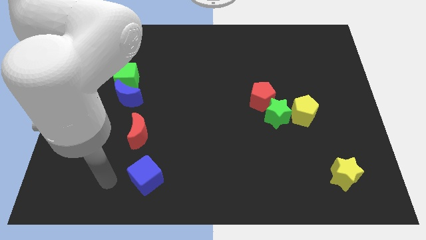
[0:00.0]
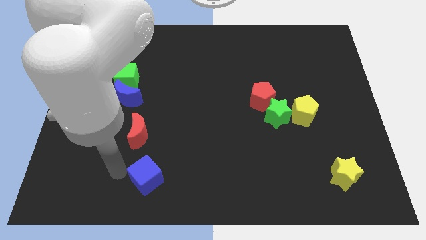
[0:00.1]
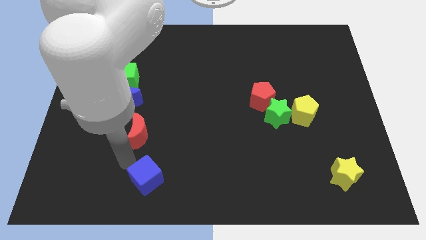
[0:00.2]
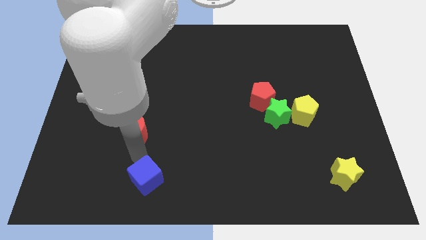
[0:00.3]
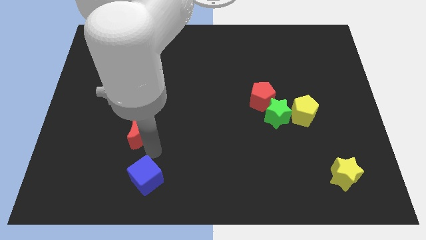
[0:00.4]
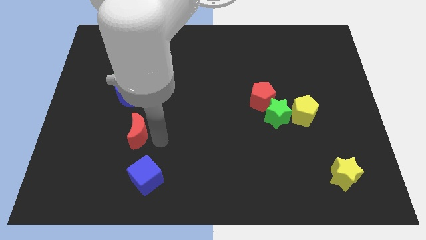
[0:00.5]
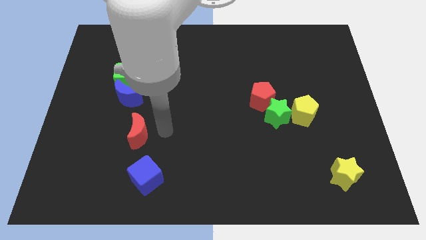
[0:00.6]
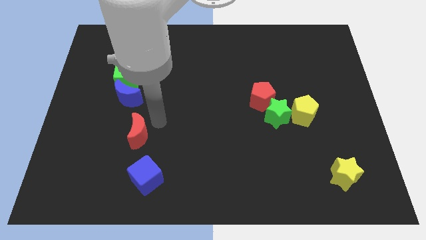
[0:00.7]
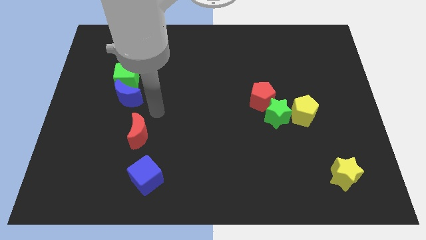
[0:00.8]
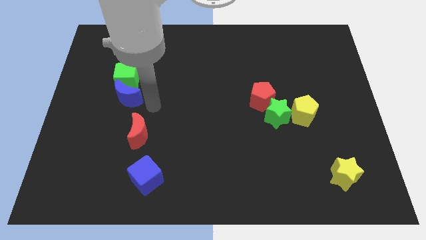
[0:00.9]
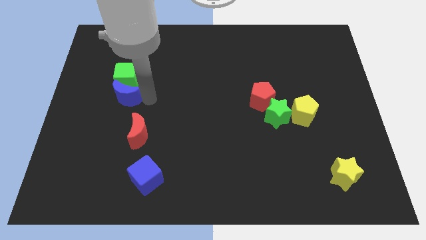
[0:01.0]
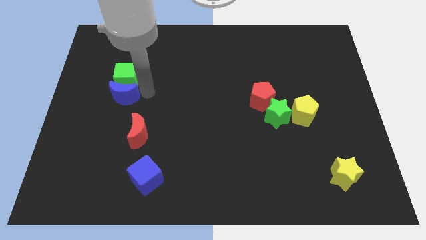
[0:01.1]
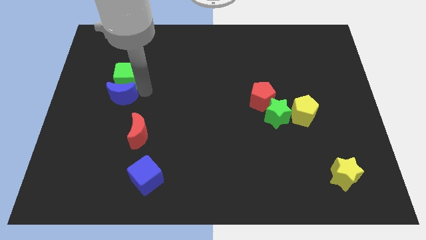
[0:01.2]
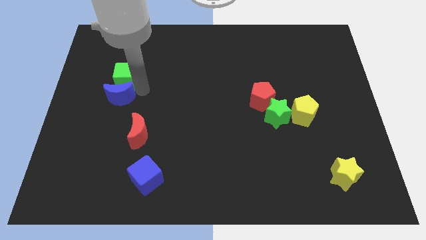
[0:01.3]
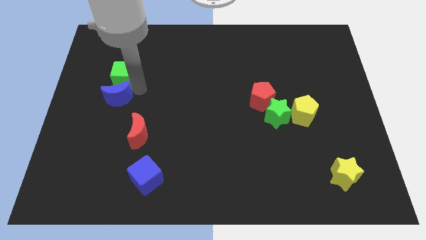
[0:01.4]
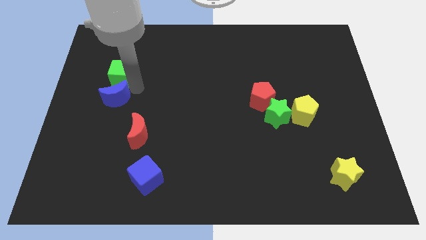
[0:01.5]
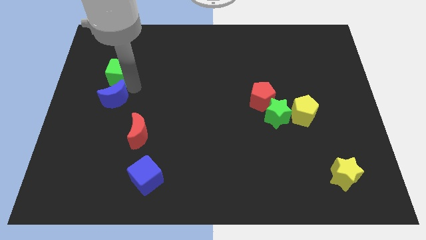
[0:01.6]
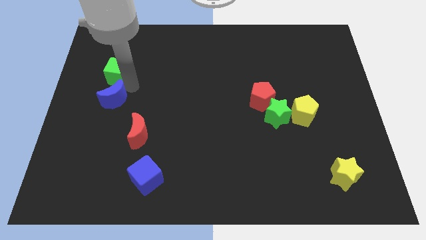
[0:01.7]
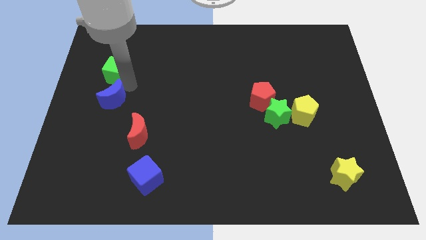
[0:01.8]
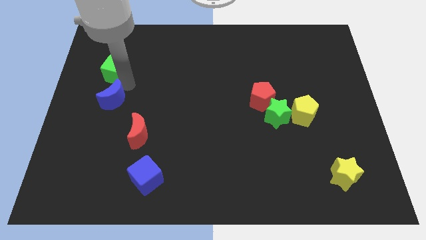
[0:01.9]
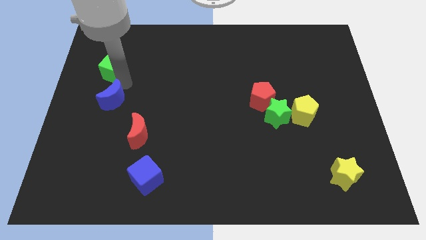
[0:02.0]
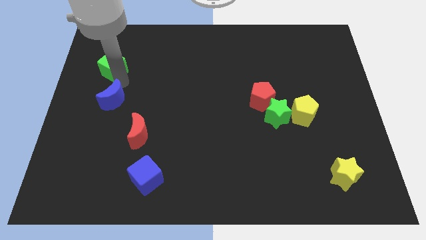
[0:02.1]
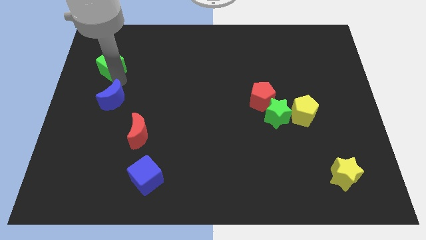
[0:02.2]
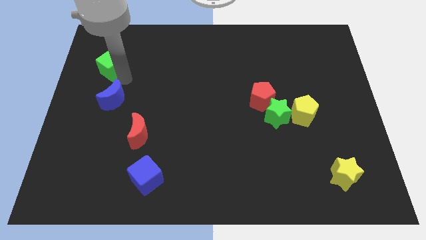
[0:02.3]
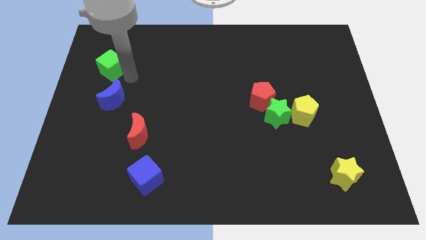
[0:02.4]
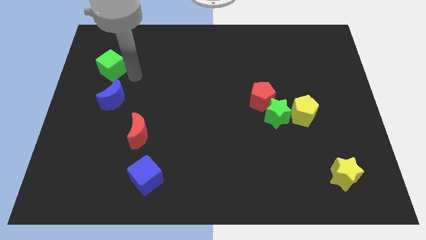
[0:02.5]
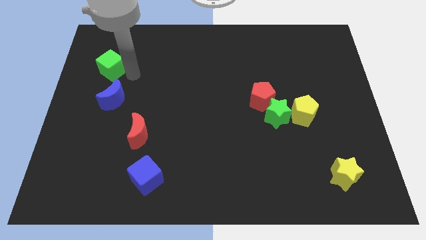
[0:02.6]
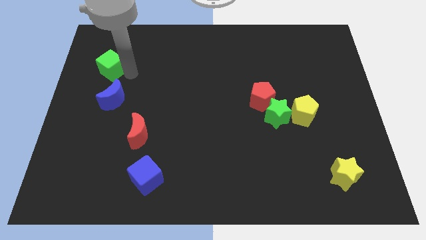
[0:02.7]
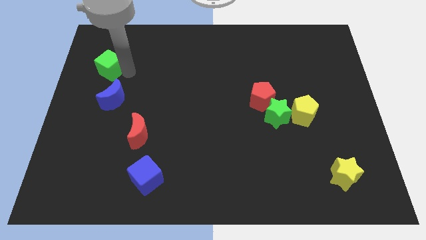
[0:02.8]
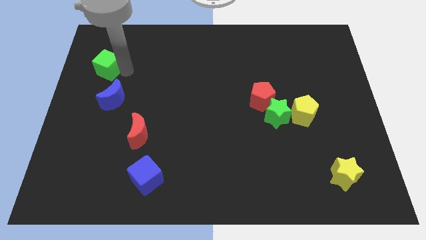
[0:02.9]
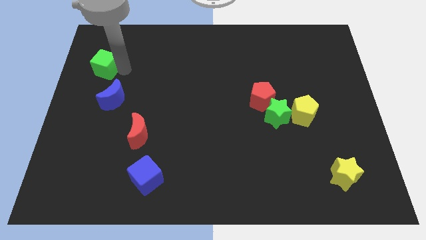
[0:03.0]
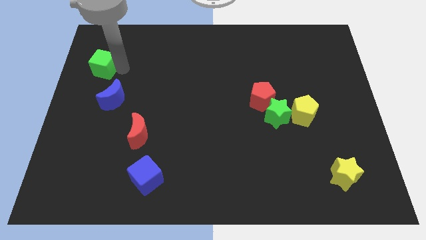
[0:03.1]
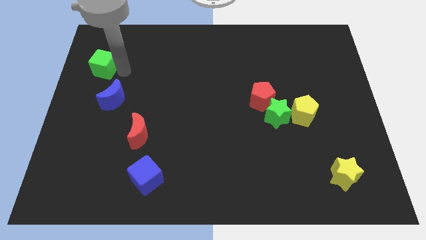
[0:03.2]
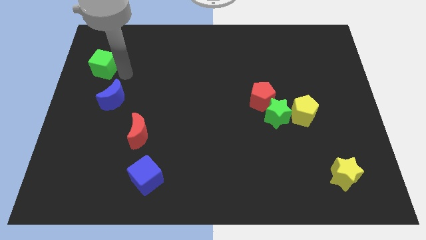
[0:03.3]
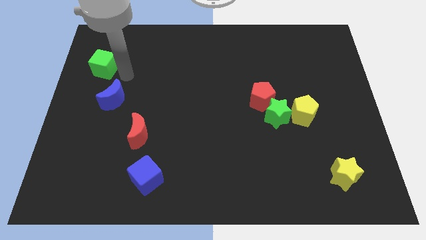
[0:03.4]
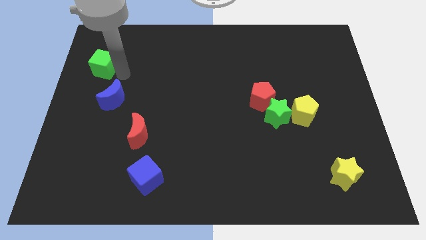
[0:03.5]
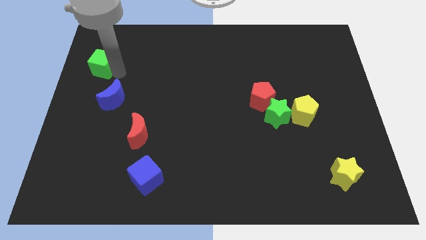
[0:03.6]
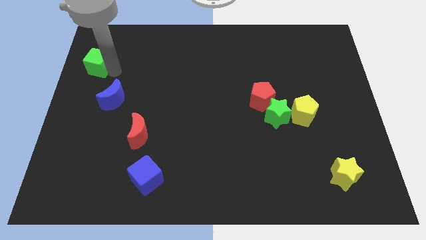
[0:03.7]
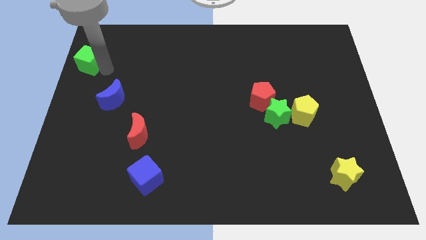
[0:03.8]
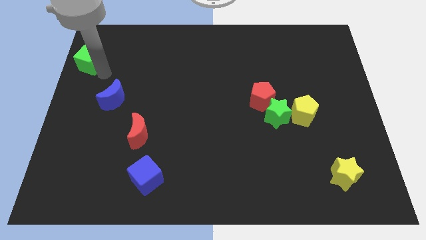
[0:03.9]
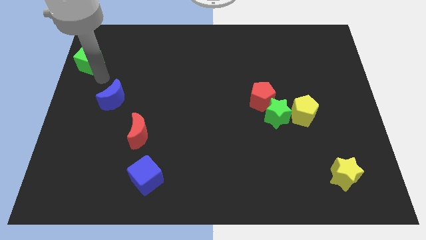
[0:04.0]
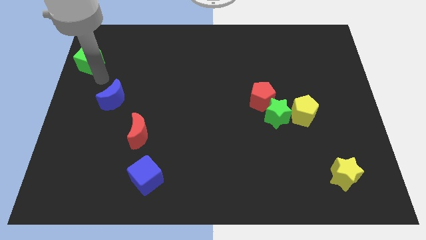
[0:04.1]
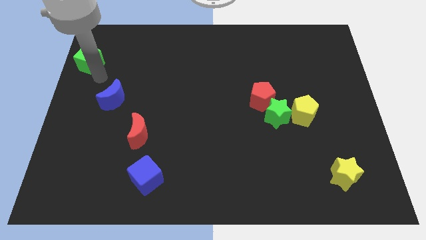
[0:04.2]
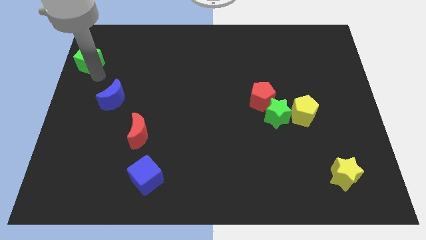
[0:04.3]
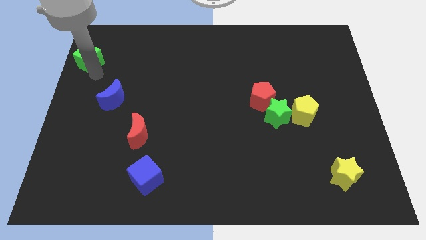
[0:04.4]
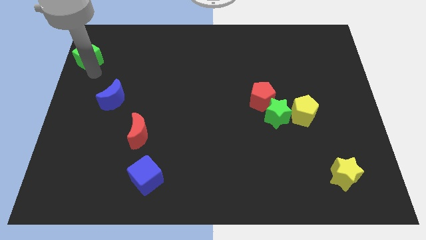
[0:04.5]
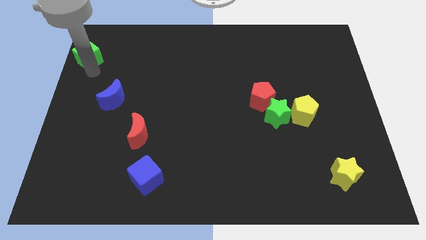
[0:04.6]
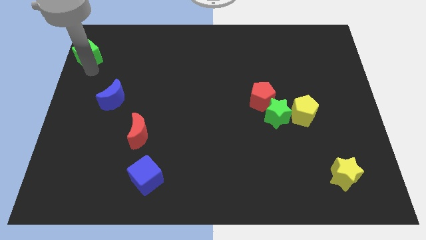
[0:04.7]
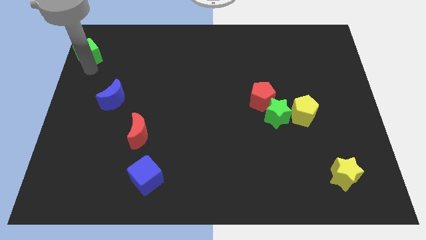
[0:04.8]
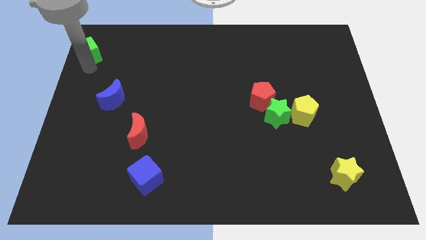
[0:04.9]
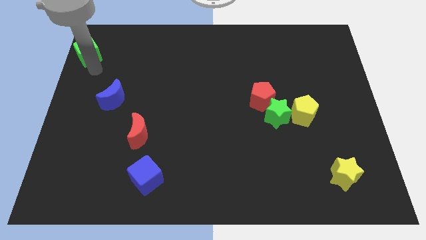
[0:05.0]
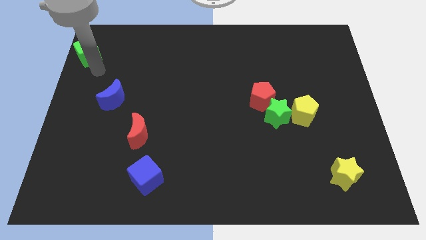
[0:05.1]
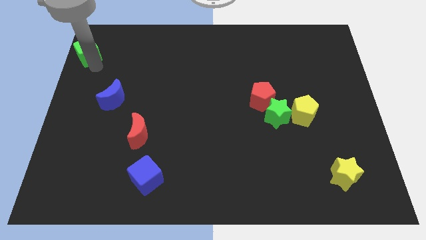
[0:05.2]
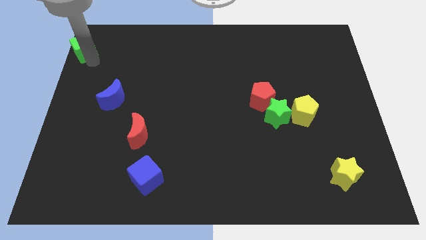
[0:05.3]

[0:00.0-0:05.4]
move the green cube to the top left corner

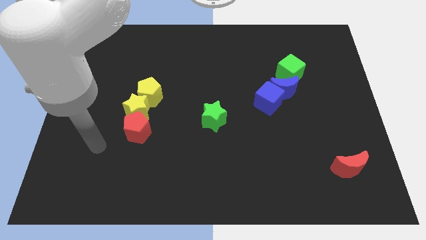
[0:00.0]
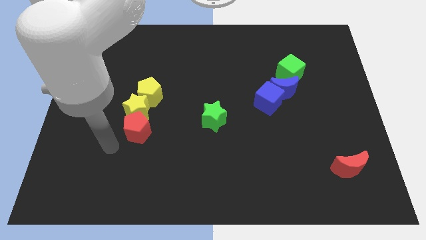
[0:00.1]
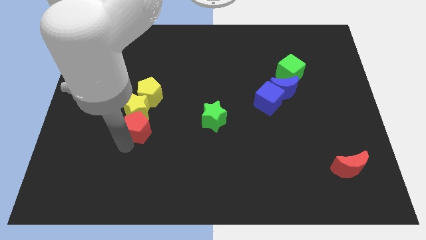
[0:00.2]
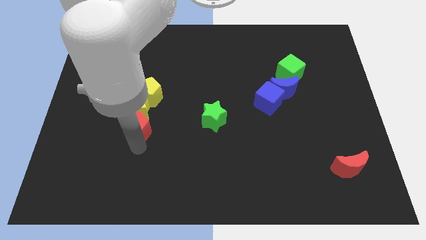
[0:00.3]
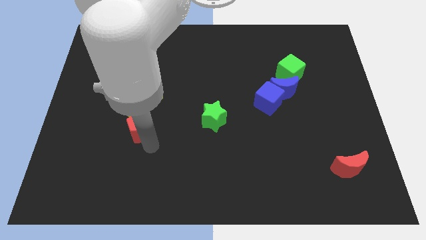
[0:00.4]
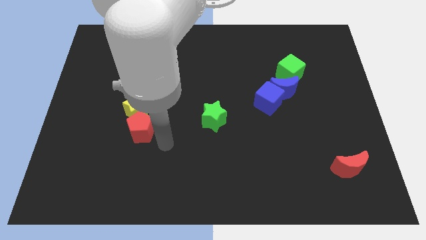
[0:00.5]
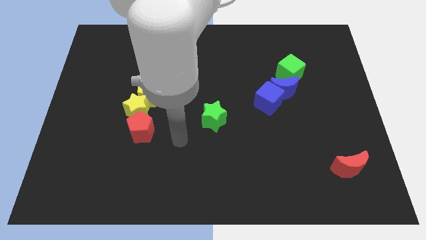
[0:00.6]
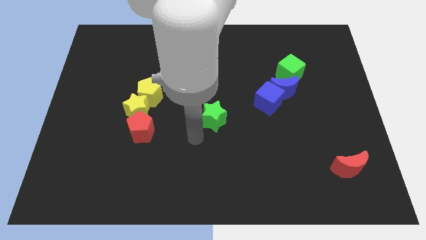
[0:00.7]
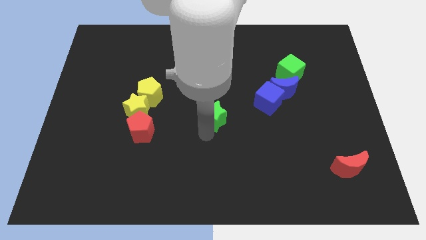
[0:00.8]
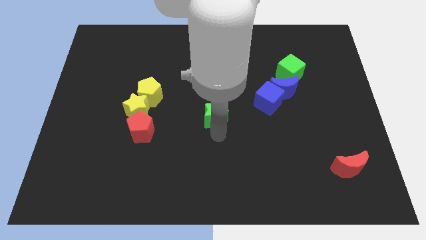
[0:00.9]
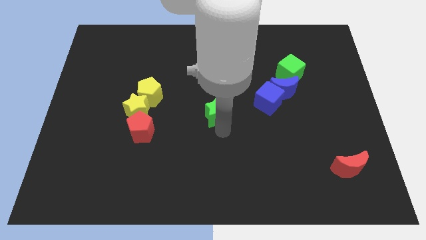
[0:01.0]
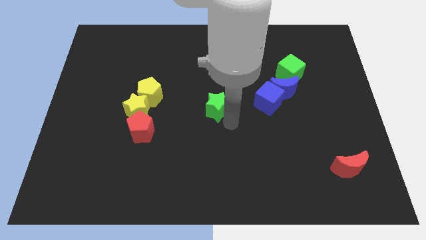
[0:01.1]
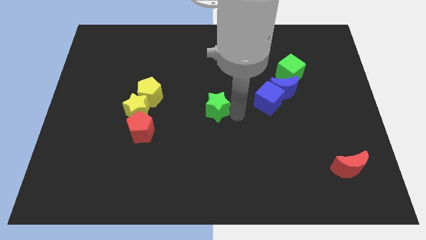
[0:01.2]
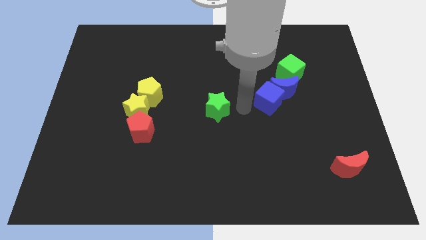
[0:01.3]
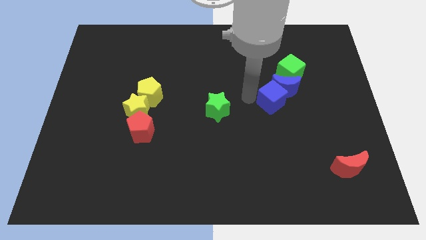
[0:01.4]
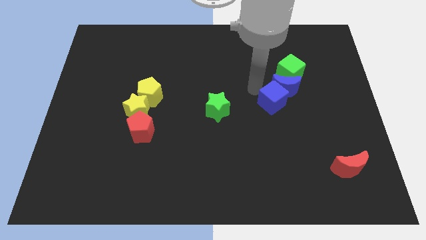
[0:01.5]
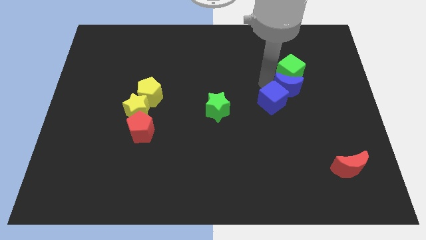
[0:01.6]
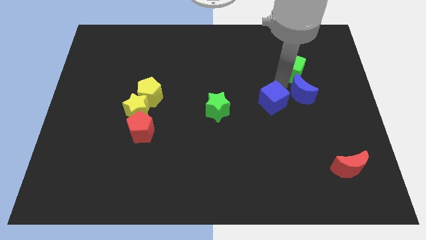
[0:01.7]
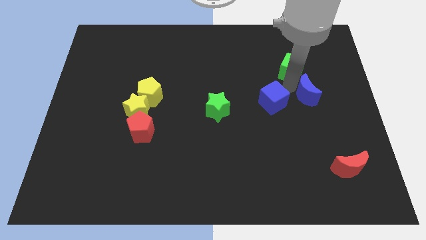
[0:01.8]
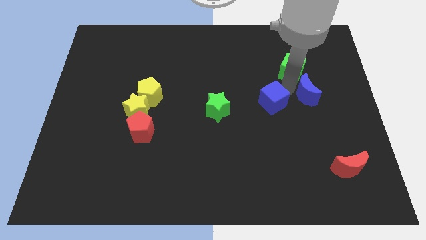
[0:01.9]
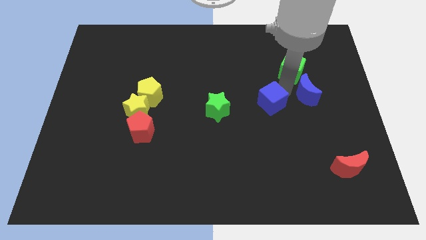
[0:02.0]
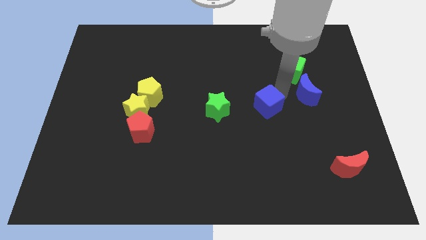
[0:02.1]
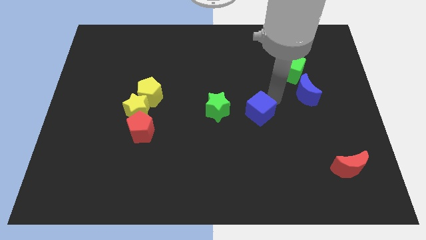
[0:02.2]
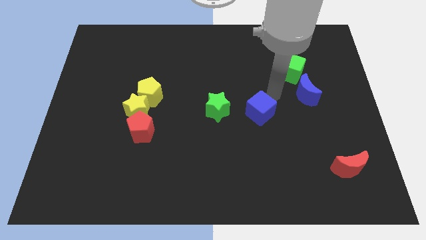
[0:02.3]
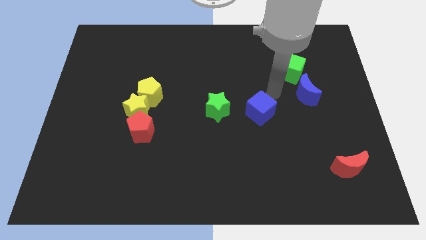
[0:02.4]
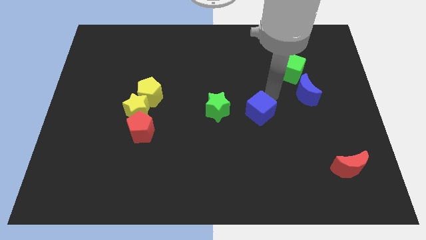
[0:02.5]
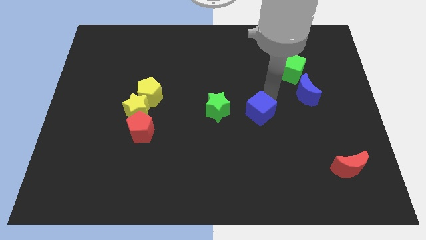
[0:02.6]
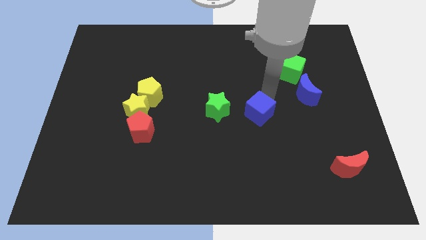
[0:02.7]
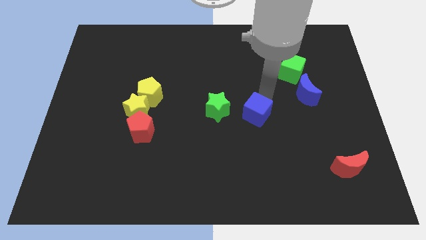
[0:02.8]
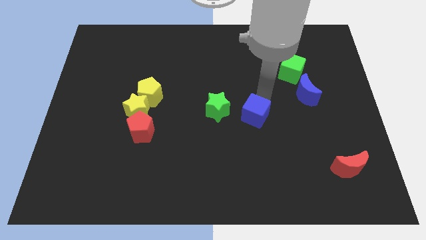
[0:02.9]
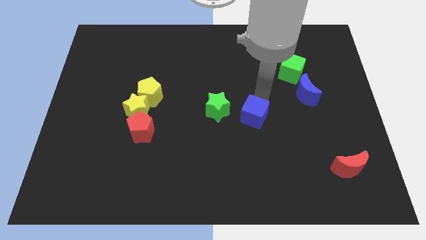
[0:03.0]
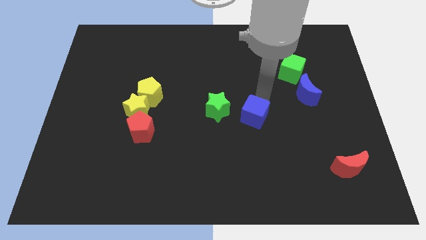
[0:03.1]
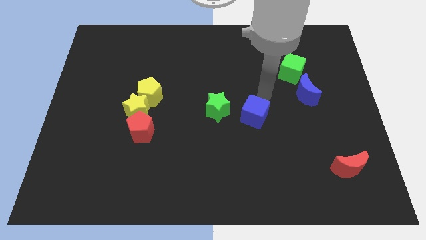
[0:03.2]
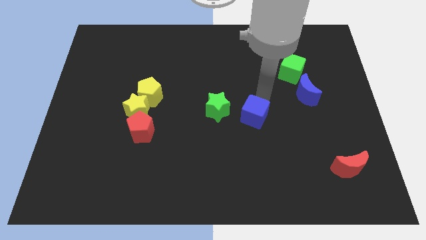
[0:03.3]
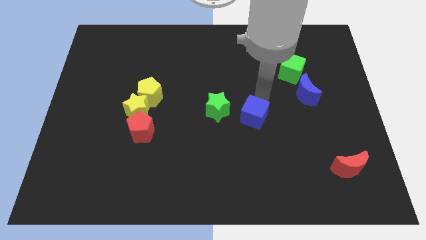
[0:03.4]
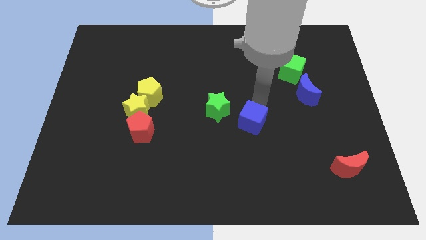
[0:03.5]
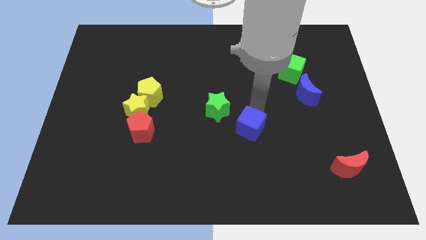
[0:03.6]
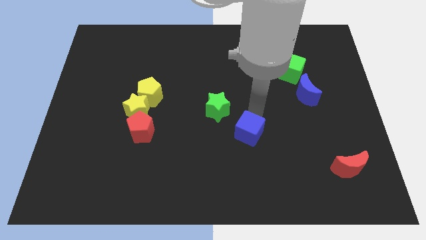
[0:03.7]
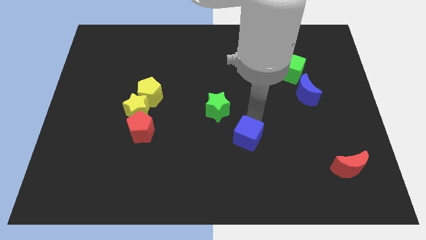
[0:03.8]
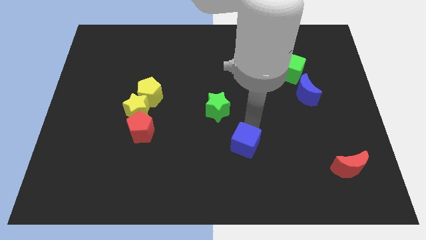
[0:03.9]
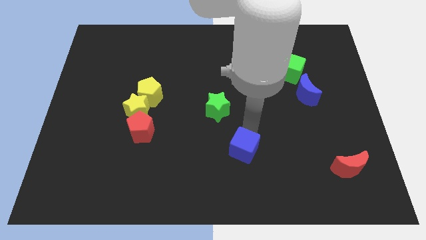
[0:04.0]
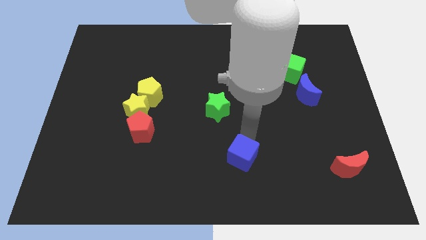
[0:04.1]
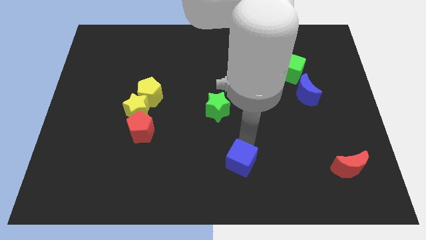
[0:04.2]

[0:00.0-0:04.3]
put the blue cube to the bottom side
